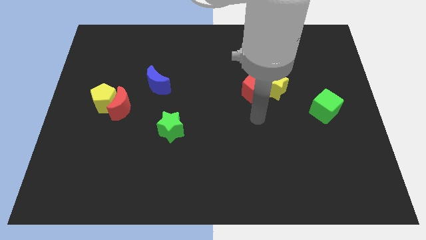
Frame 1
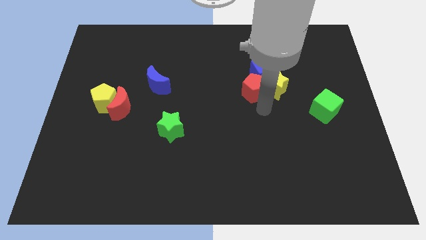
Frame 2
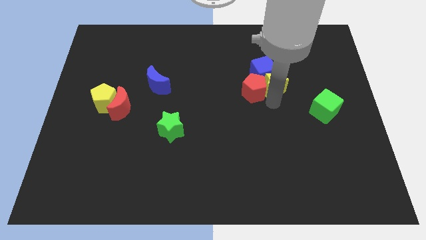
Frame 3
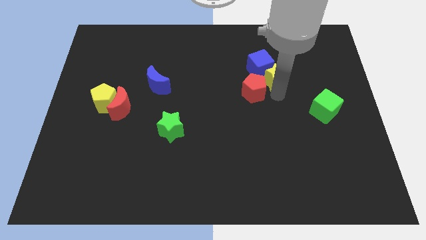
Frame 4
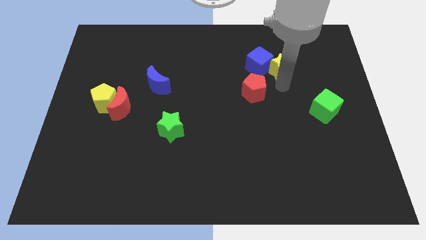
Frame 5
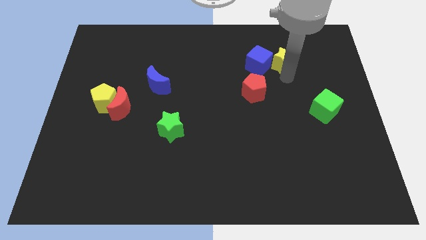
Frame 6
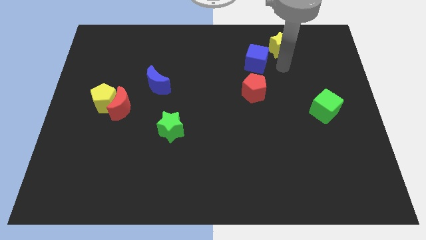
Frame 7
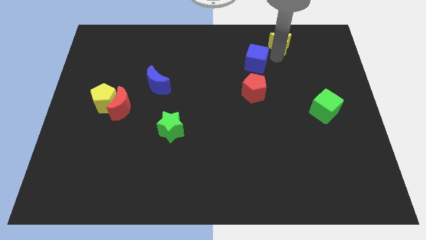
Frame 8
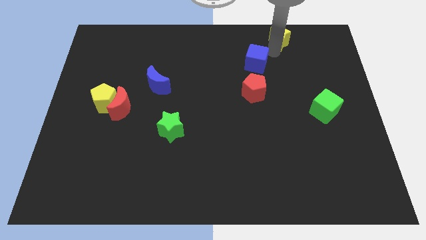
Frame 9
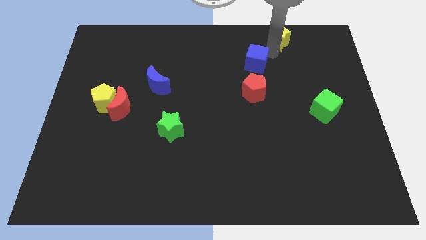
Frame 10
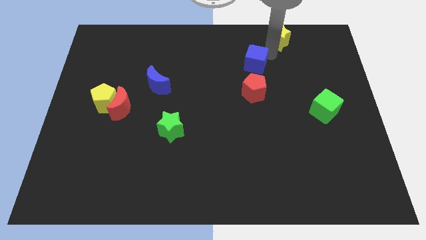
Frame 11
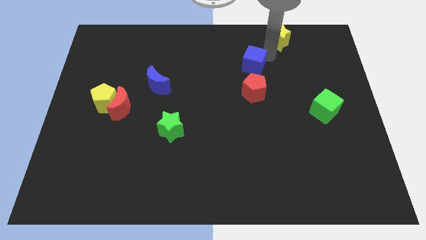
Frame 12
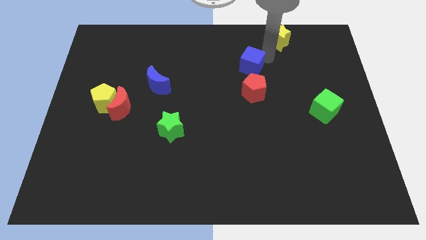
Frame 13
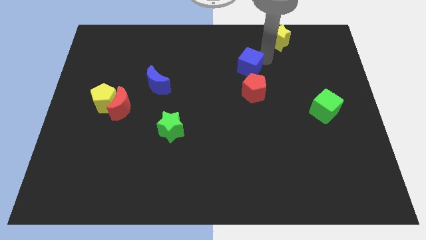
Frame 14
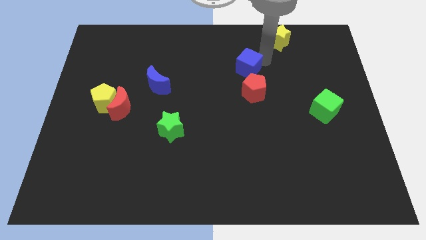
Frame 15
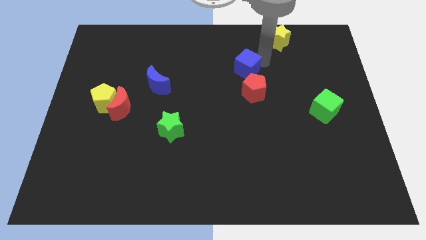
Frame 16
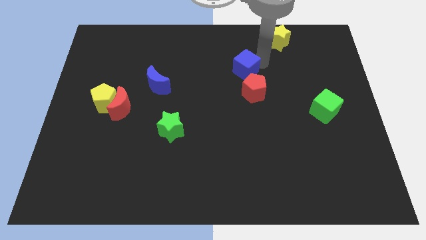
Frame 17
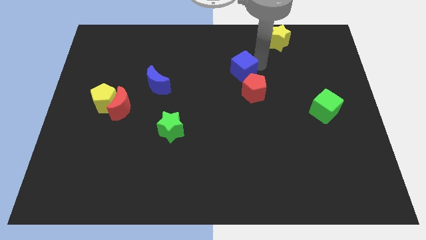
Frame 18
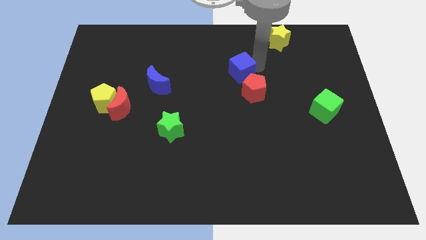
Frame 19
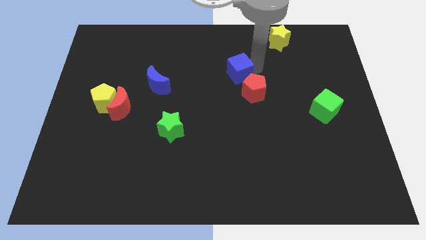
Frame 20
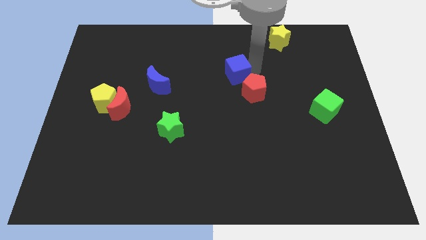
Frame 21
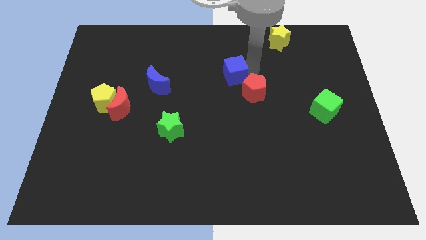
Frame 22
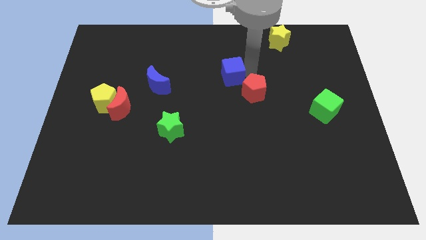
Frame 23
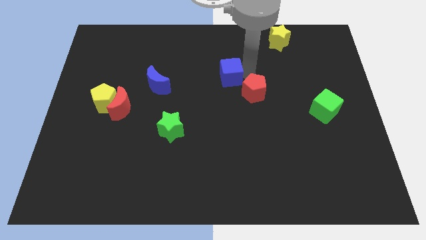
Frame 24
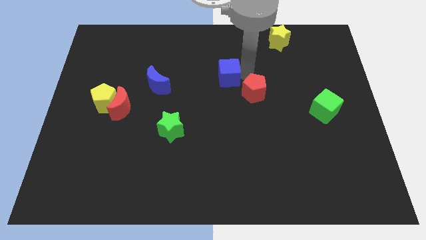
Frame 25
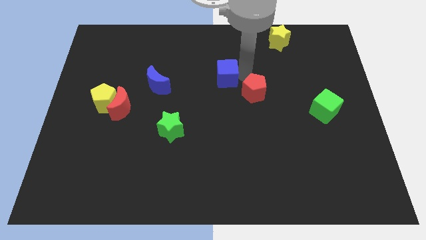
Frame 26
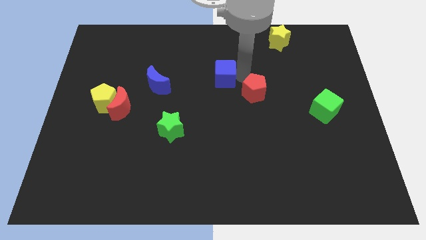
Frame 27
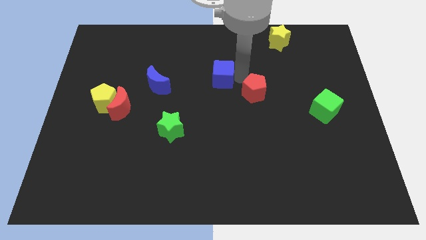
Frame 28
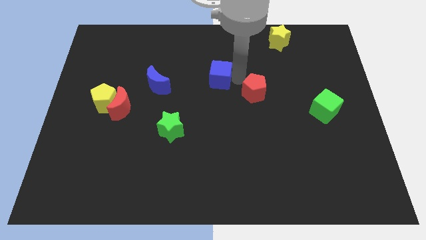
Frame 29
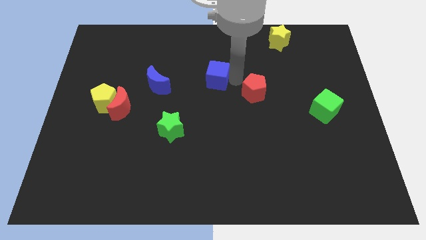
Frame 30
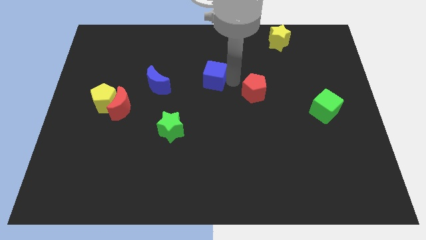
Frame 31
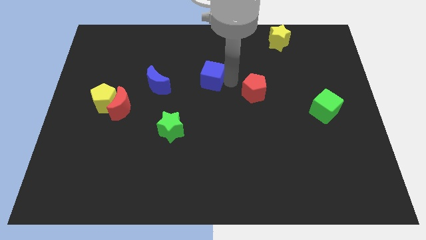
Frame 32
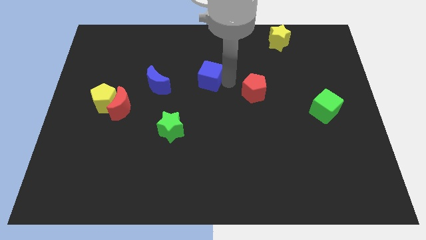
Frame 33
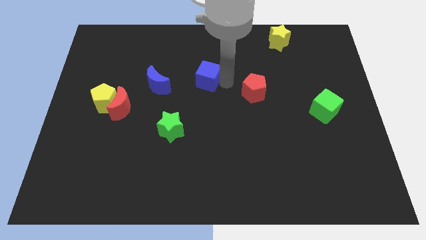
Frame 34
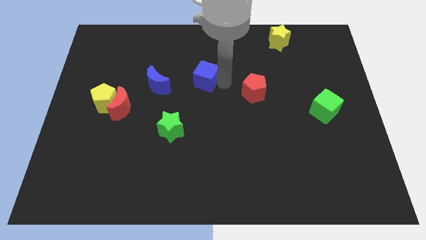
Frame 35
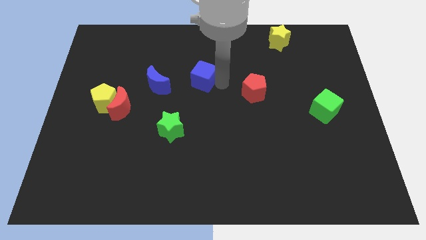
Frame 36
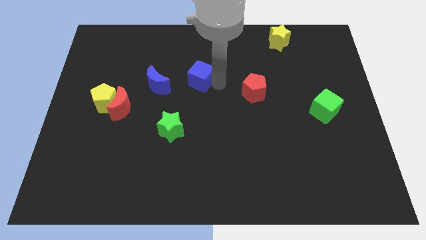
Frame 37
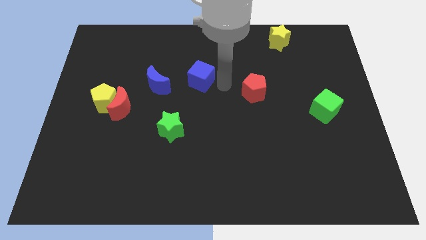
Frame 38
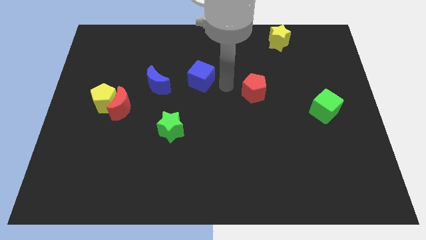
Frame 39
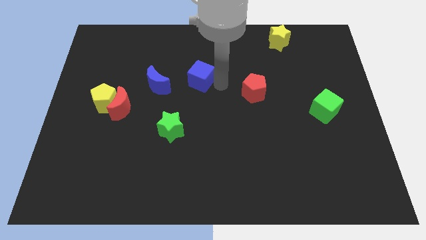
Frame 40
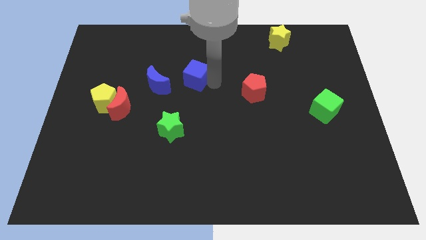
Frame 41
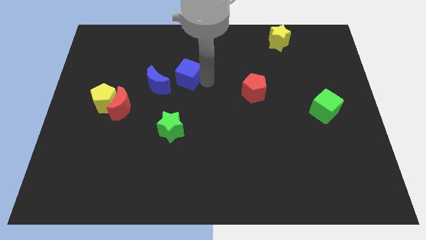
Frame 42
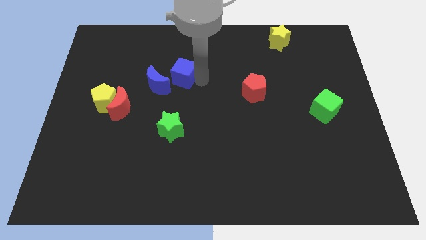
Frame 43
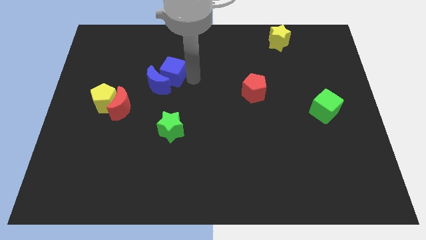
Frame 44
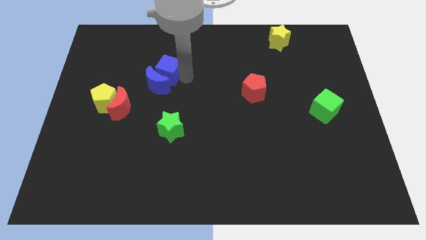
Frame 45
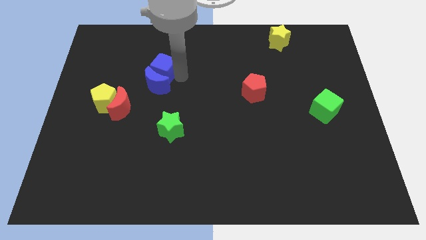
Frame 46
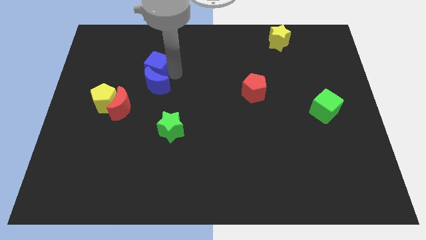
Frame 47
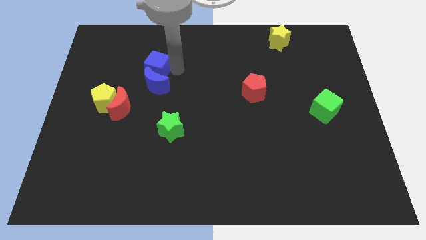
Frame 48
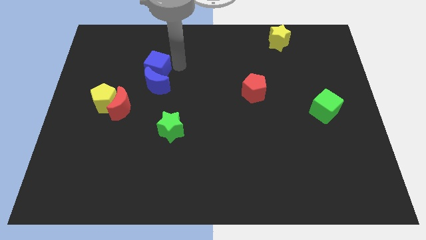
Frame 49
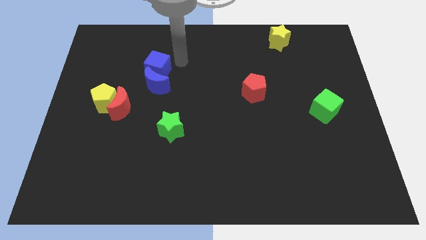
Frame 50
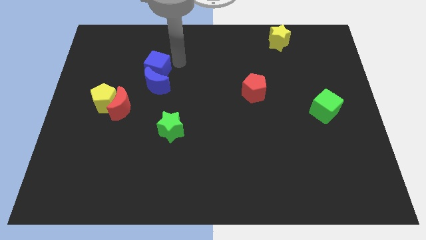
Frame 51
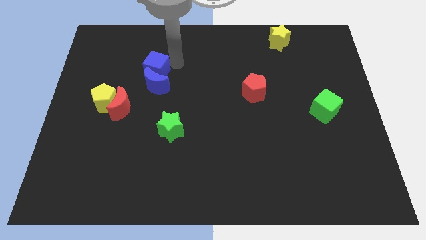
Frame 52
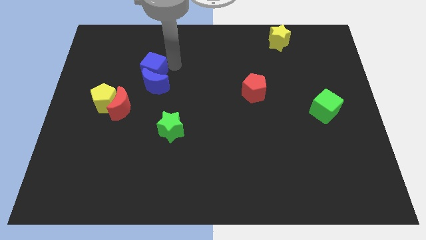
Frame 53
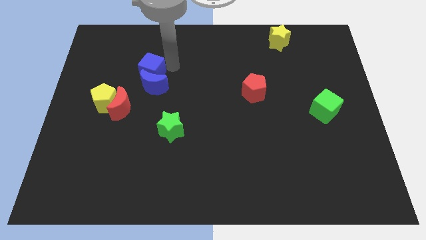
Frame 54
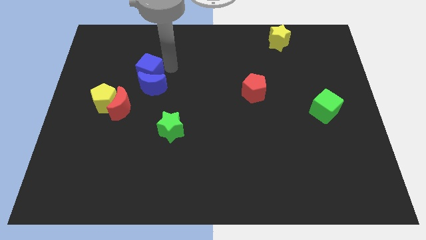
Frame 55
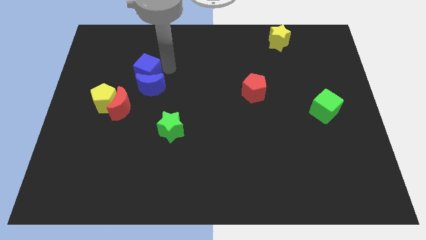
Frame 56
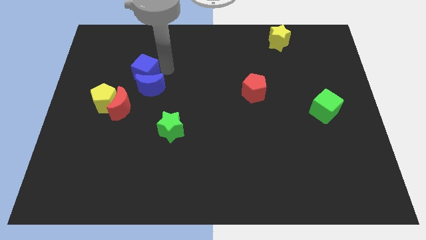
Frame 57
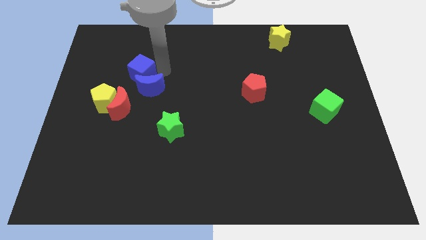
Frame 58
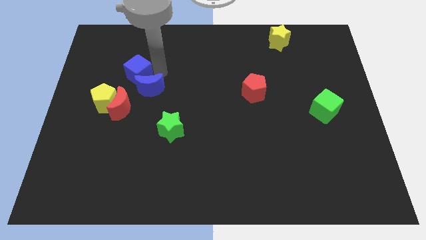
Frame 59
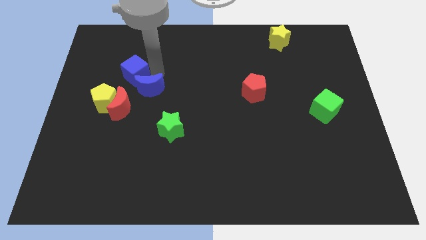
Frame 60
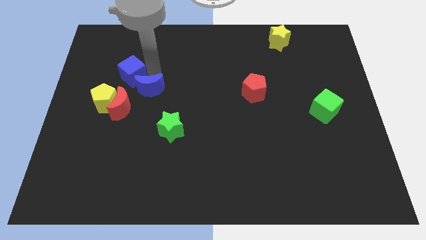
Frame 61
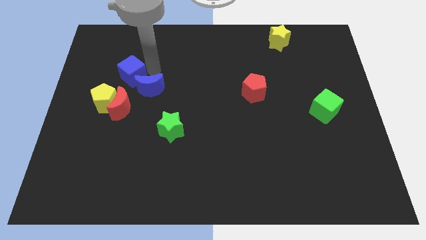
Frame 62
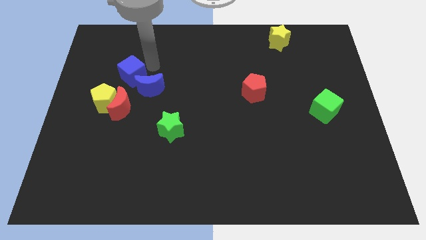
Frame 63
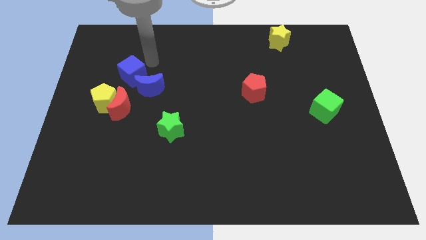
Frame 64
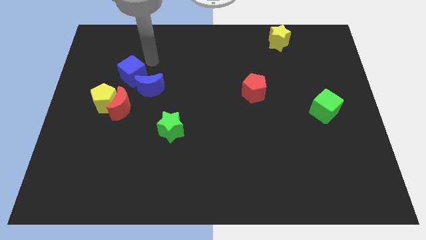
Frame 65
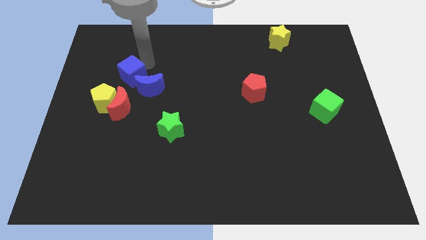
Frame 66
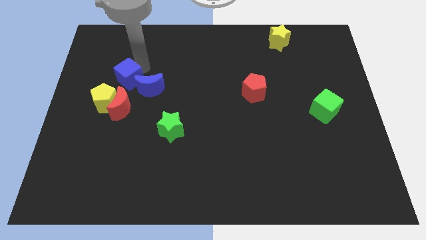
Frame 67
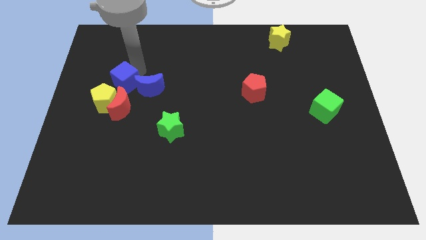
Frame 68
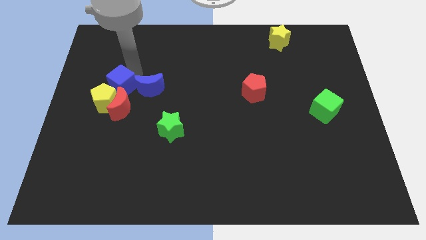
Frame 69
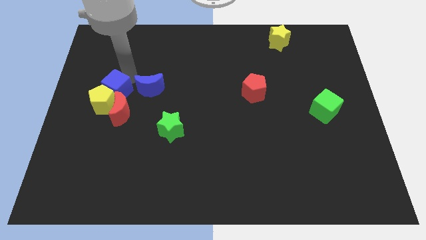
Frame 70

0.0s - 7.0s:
move the blue cube next to the yellow pentagon

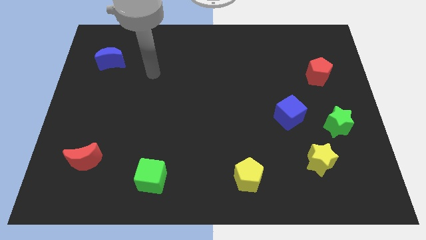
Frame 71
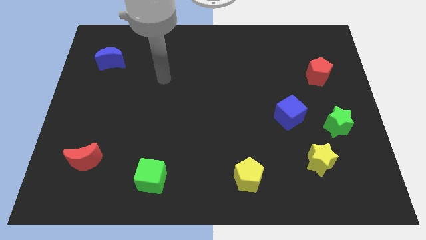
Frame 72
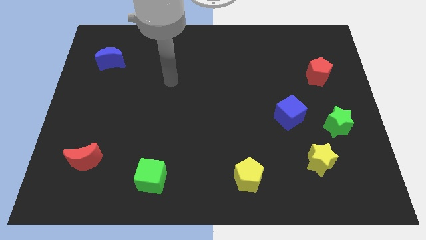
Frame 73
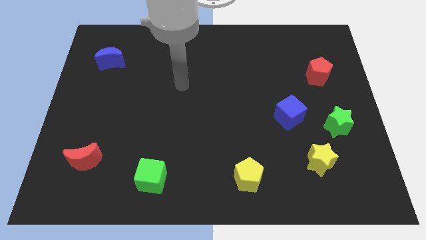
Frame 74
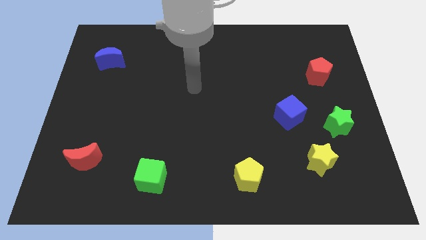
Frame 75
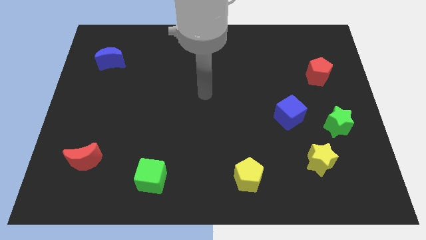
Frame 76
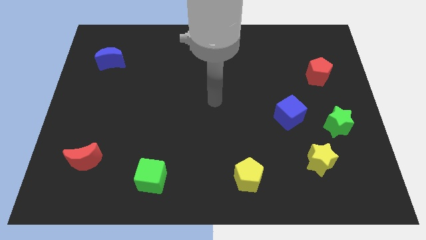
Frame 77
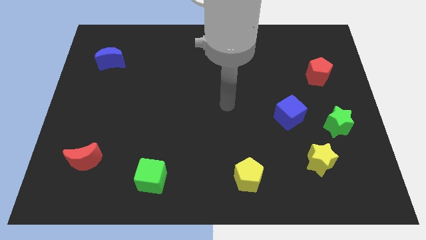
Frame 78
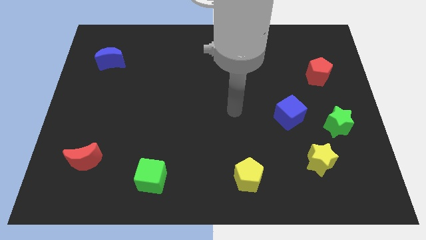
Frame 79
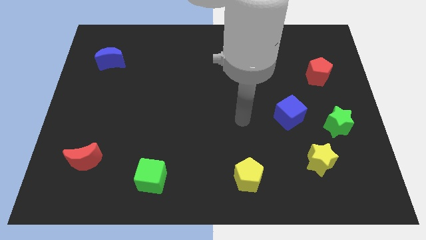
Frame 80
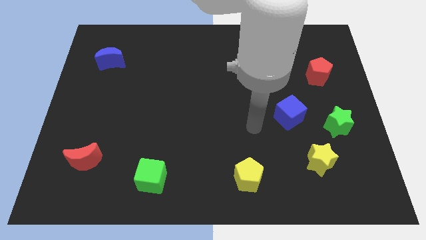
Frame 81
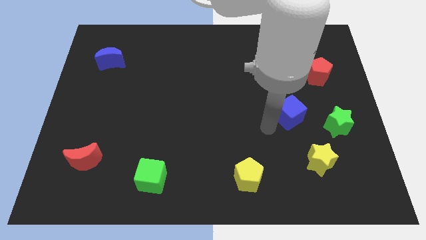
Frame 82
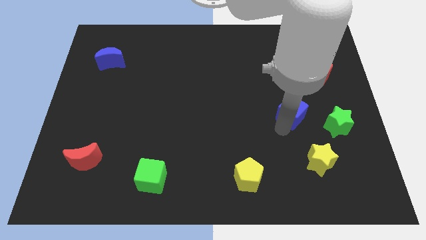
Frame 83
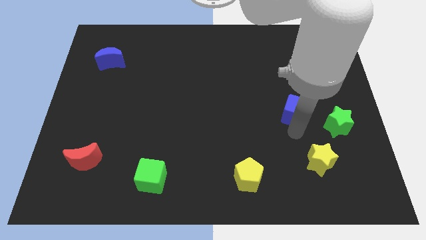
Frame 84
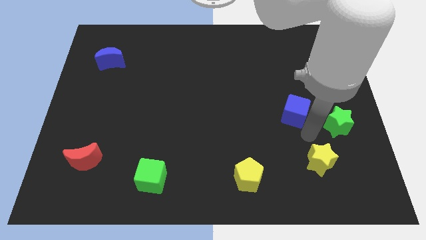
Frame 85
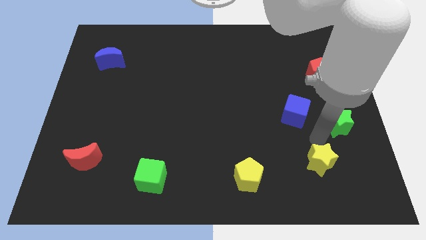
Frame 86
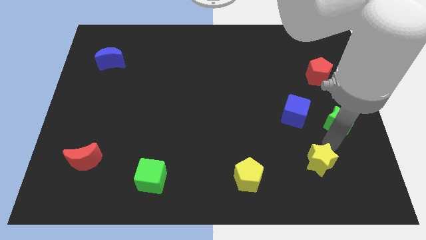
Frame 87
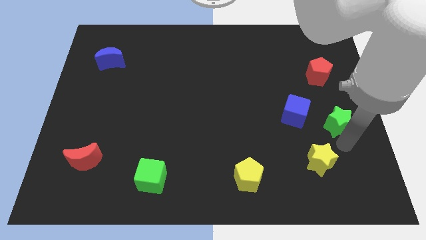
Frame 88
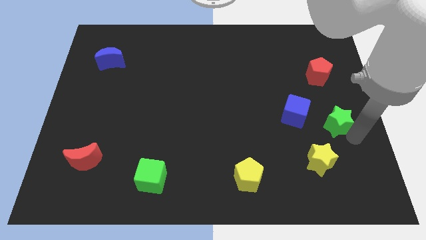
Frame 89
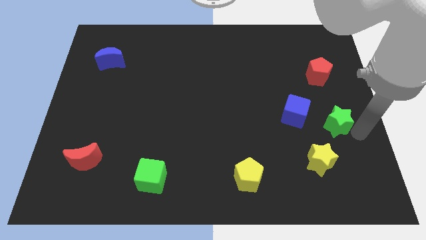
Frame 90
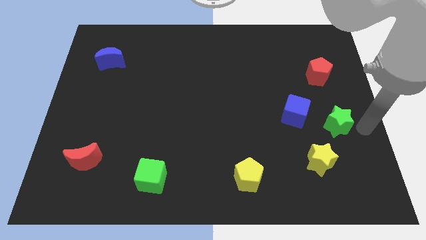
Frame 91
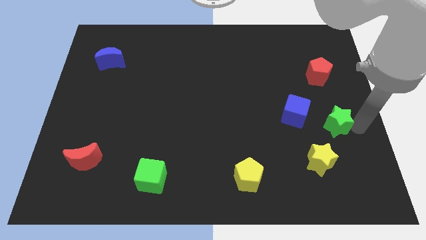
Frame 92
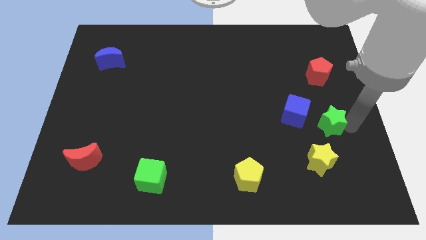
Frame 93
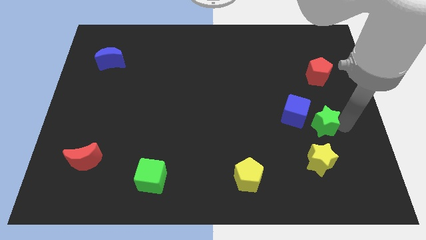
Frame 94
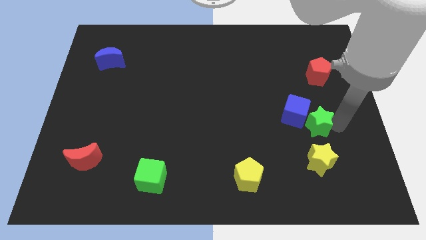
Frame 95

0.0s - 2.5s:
push the green star to the blue cube
